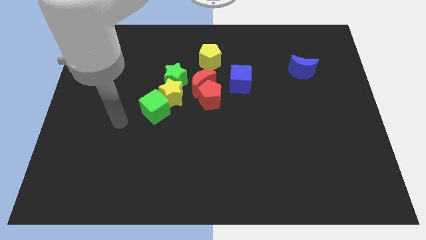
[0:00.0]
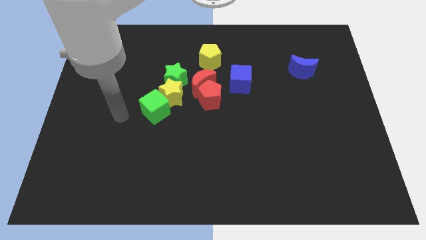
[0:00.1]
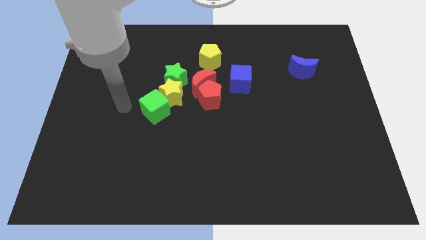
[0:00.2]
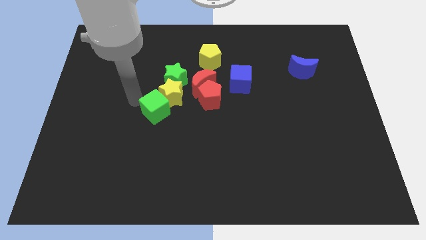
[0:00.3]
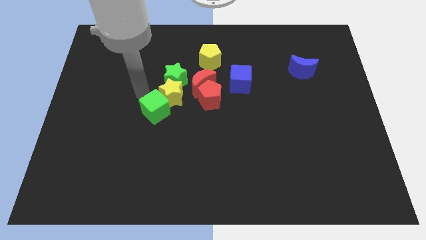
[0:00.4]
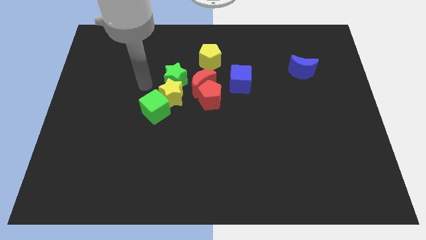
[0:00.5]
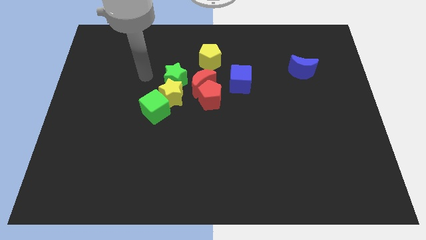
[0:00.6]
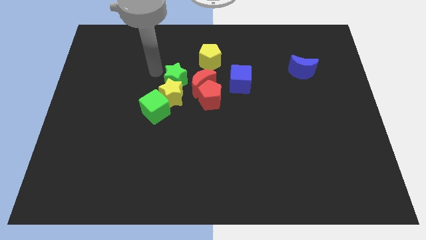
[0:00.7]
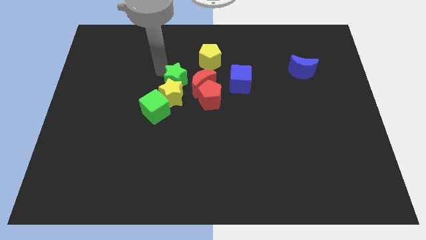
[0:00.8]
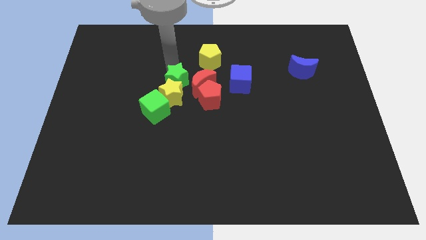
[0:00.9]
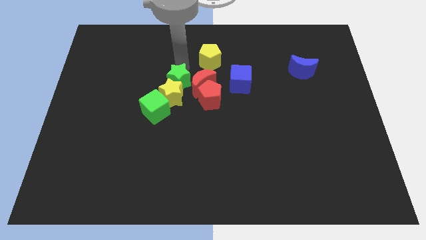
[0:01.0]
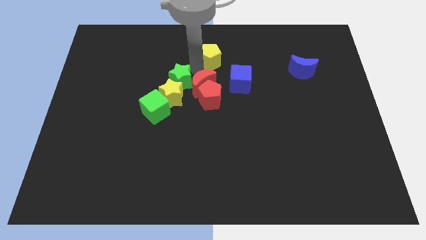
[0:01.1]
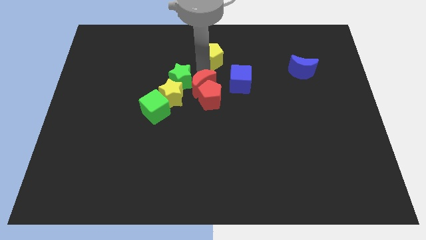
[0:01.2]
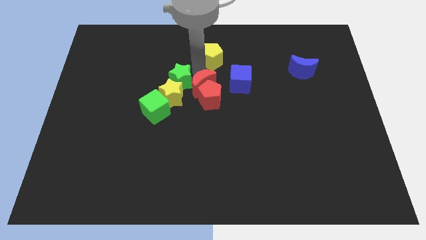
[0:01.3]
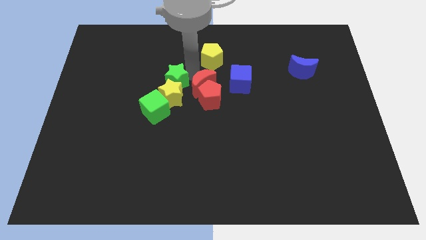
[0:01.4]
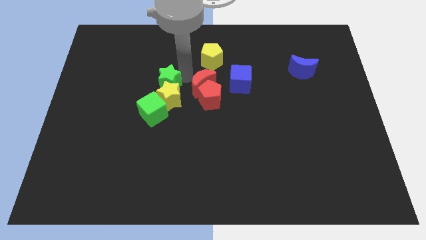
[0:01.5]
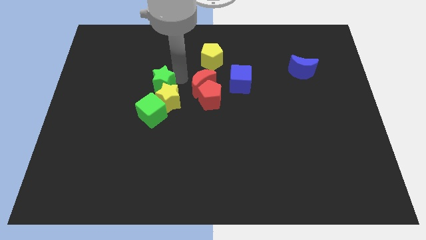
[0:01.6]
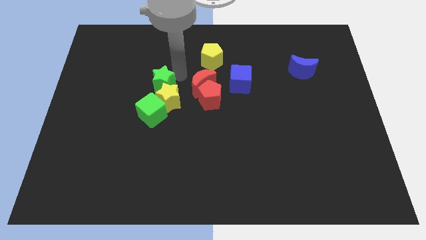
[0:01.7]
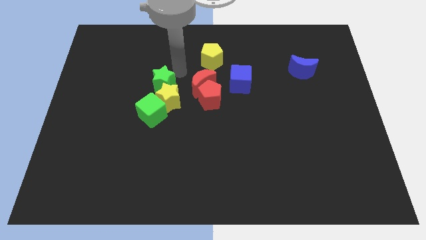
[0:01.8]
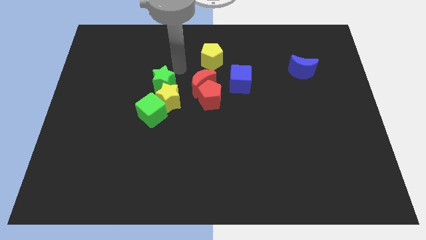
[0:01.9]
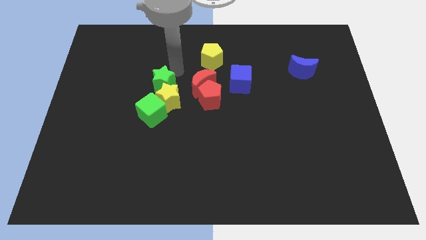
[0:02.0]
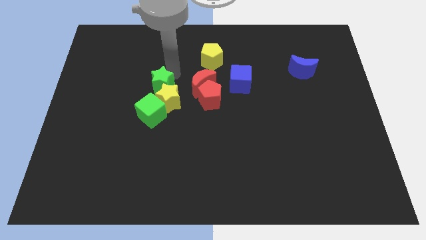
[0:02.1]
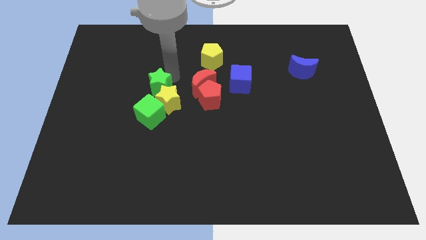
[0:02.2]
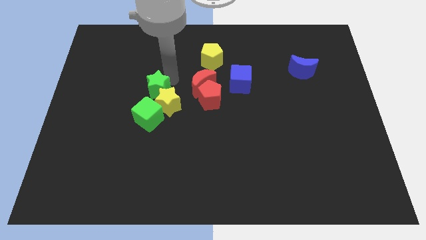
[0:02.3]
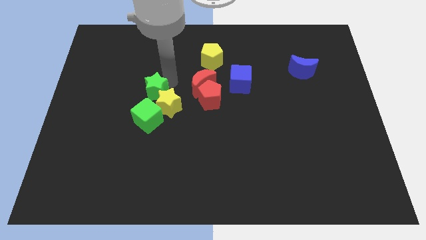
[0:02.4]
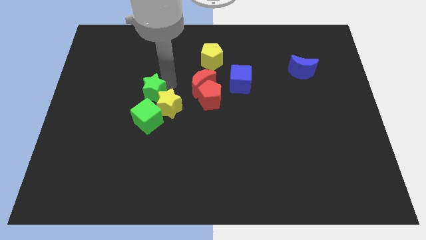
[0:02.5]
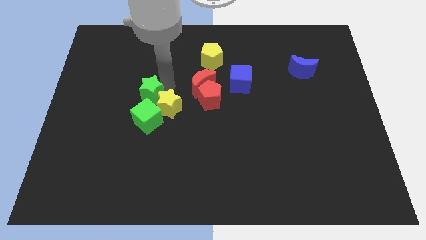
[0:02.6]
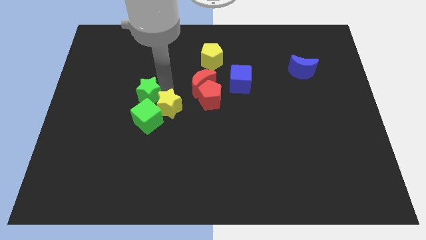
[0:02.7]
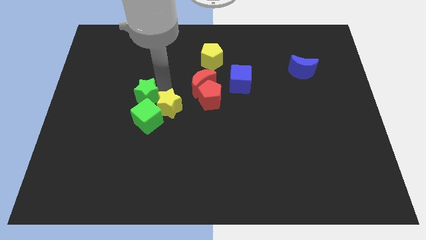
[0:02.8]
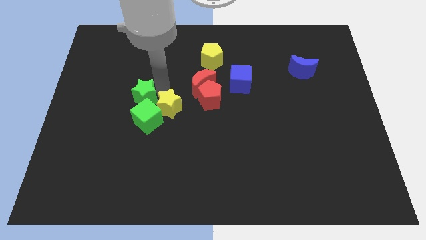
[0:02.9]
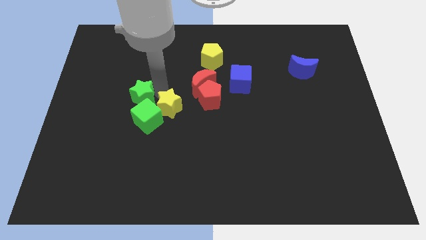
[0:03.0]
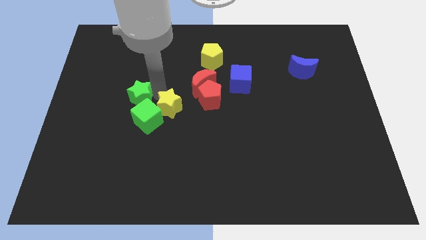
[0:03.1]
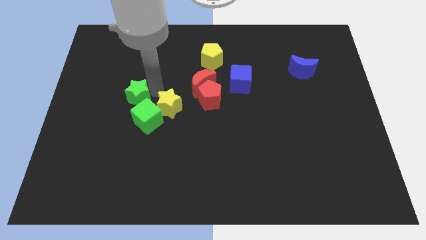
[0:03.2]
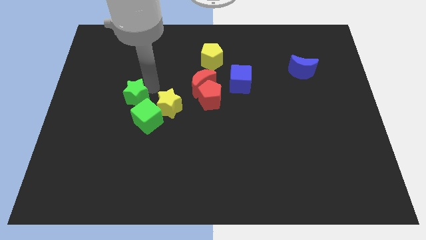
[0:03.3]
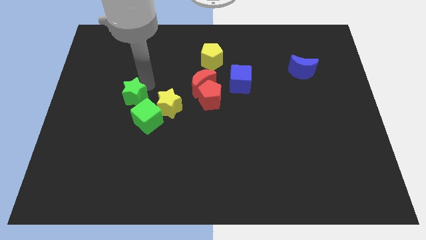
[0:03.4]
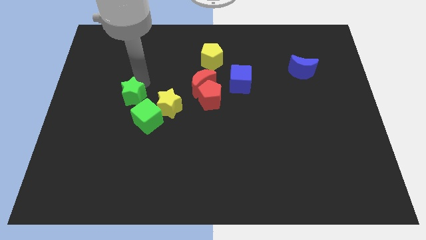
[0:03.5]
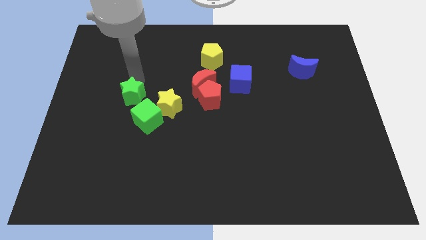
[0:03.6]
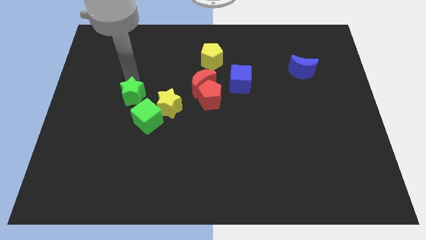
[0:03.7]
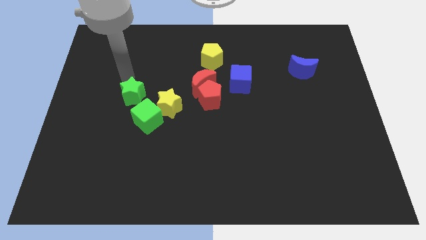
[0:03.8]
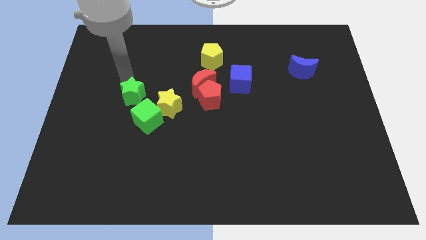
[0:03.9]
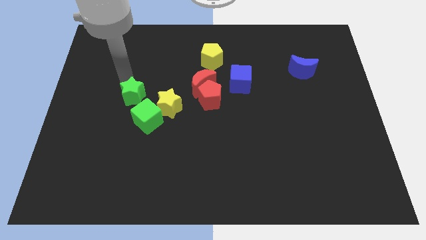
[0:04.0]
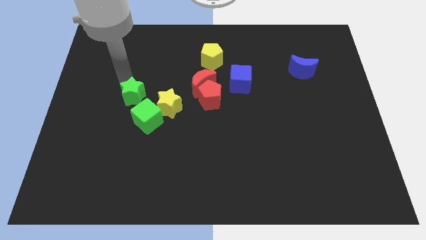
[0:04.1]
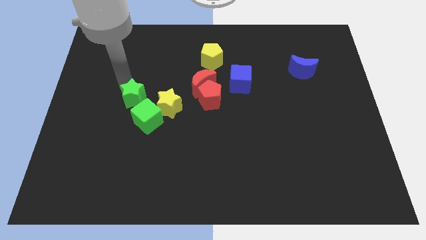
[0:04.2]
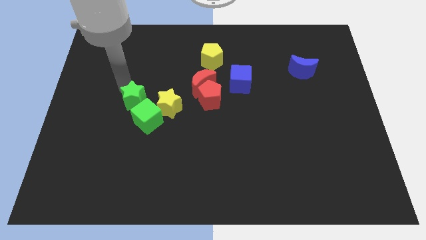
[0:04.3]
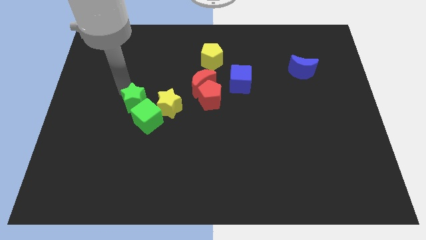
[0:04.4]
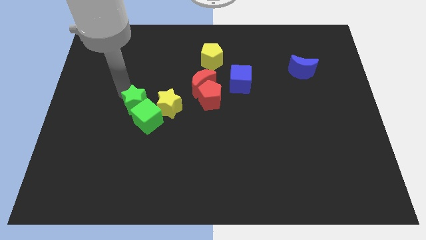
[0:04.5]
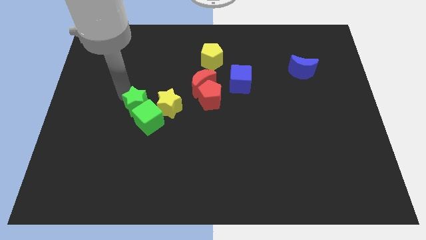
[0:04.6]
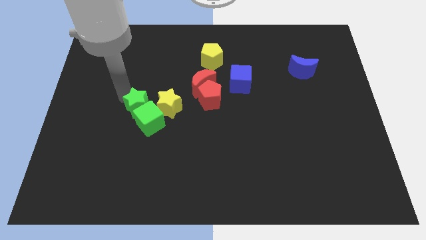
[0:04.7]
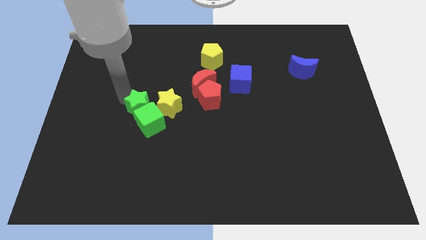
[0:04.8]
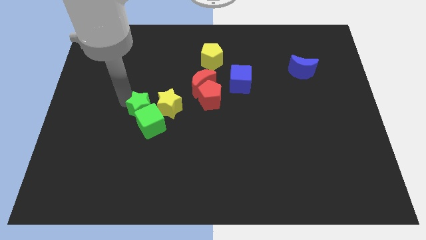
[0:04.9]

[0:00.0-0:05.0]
move the green star downwards somewhat

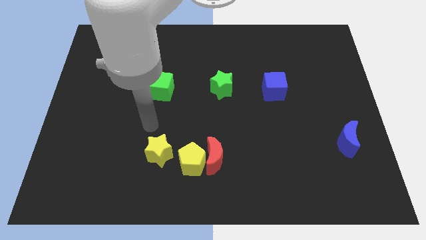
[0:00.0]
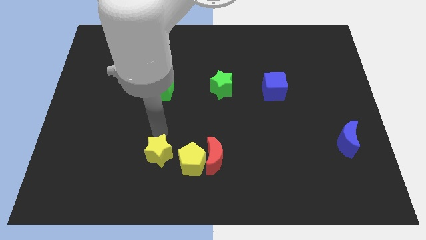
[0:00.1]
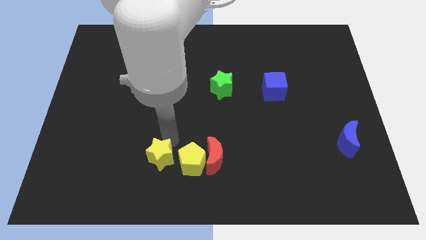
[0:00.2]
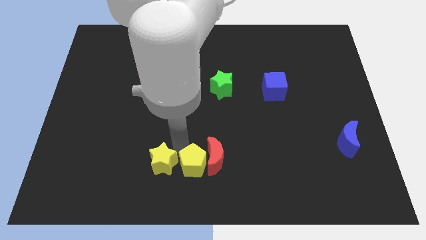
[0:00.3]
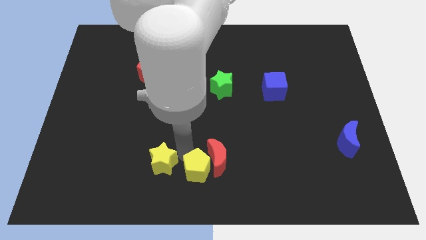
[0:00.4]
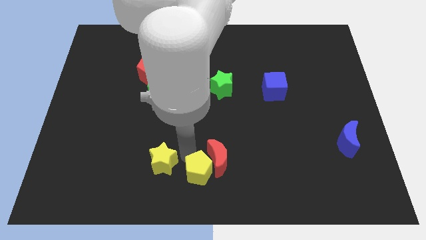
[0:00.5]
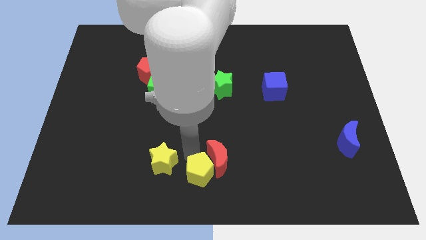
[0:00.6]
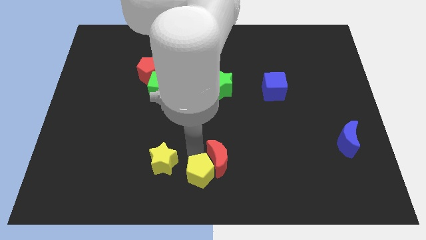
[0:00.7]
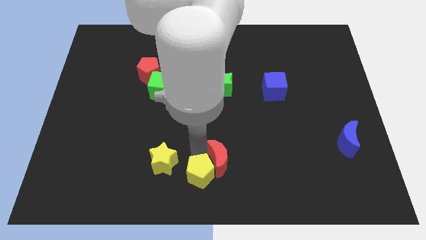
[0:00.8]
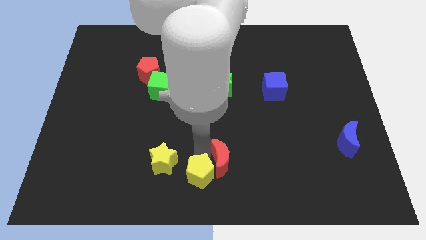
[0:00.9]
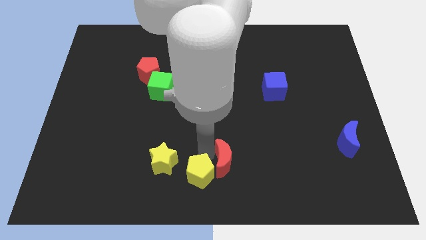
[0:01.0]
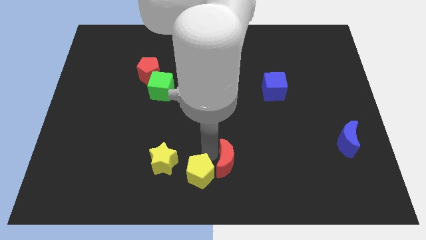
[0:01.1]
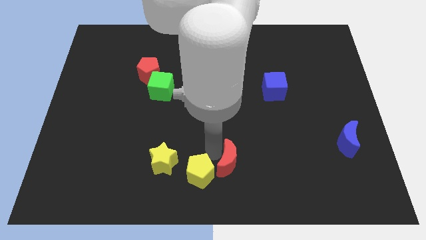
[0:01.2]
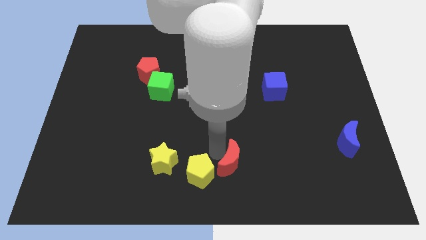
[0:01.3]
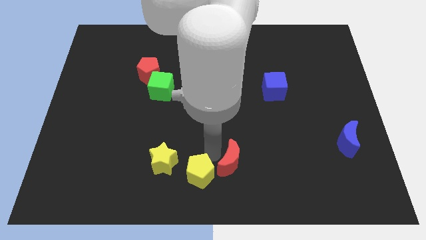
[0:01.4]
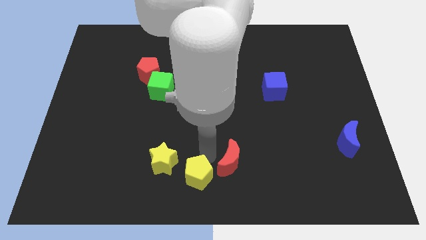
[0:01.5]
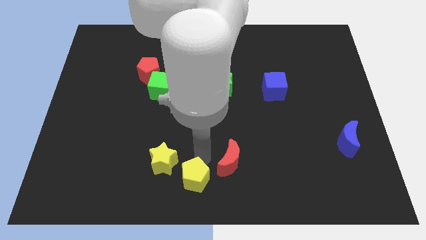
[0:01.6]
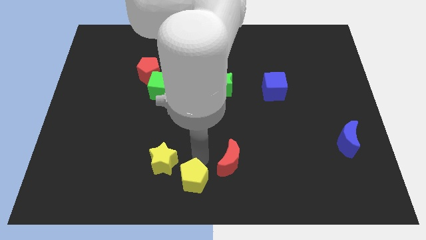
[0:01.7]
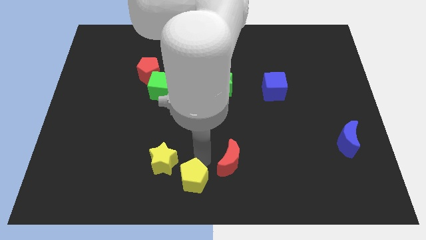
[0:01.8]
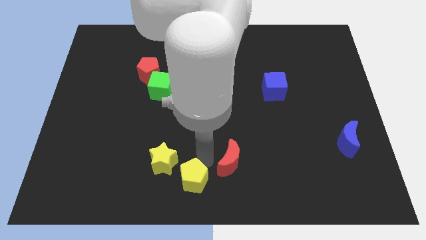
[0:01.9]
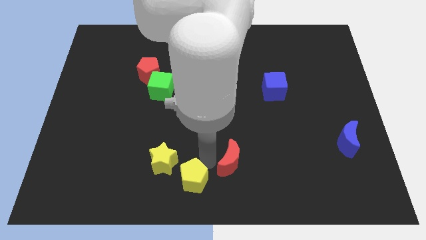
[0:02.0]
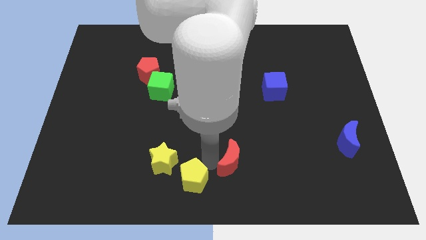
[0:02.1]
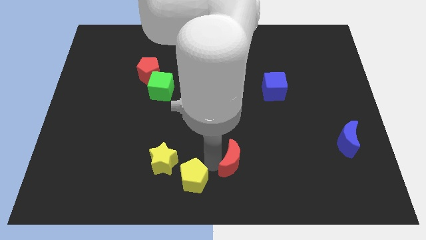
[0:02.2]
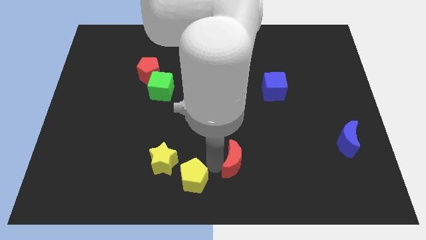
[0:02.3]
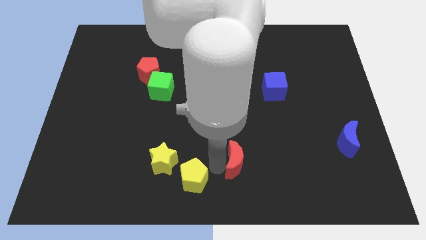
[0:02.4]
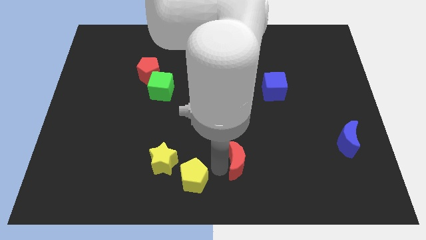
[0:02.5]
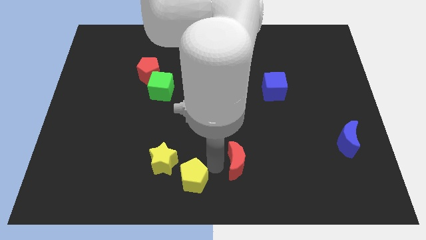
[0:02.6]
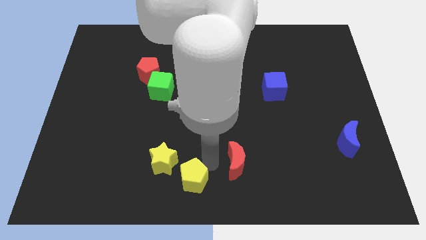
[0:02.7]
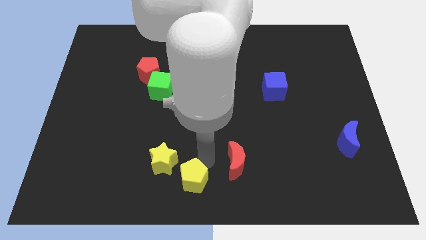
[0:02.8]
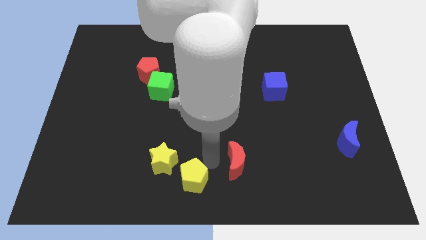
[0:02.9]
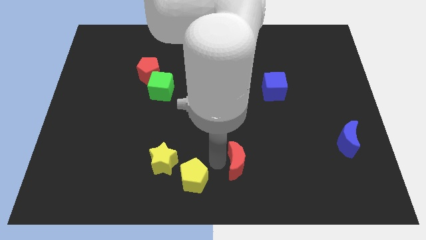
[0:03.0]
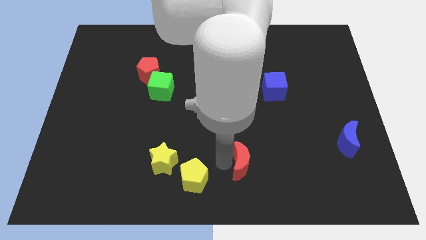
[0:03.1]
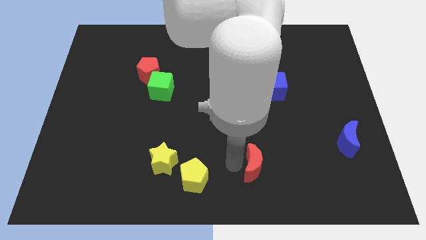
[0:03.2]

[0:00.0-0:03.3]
move the red moon a little to the right
